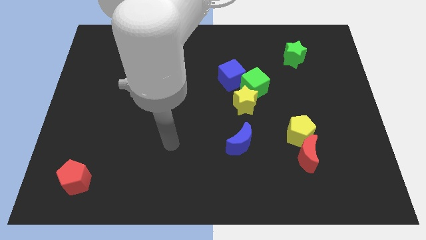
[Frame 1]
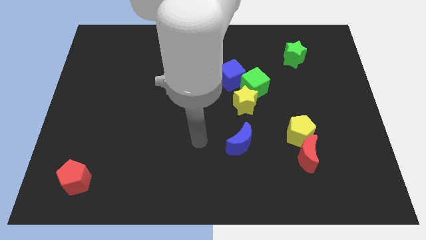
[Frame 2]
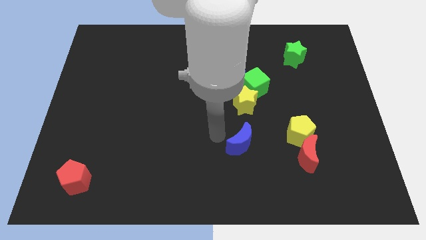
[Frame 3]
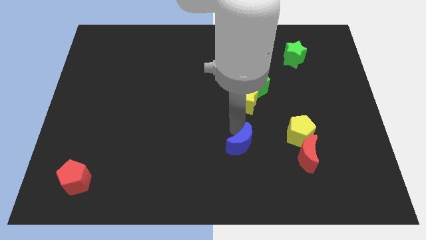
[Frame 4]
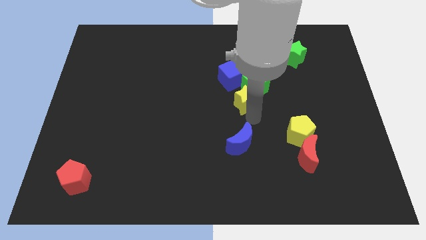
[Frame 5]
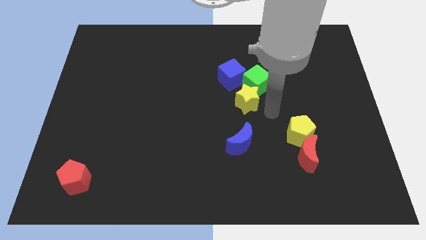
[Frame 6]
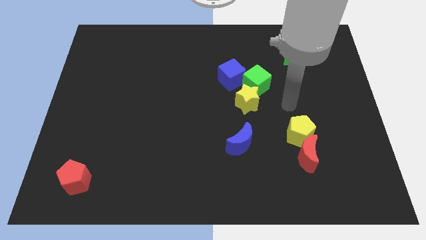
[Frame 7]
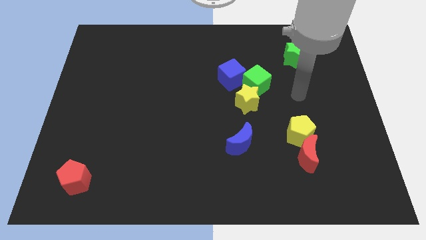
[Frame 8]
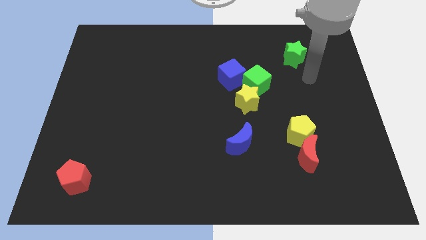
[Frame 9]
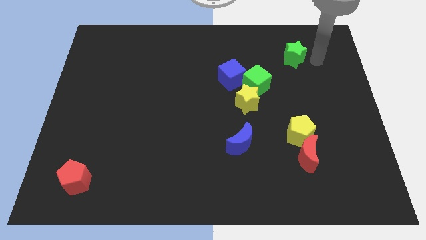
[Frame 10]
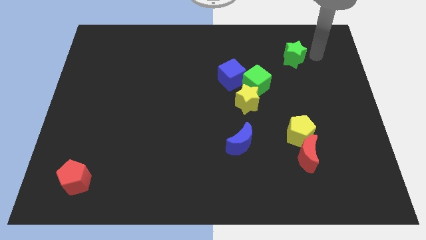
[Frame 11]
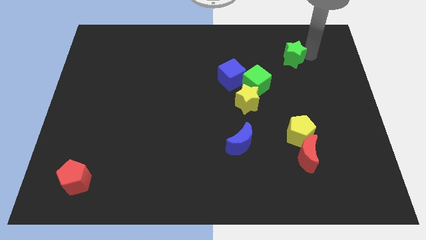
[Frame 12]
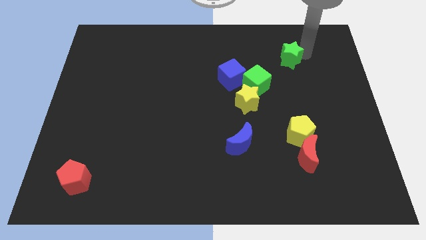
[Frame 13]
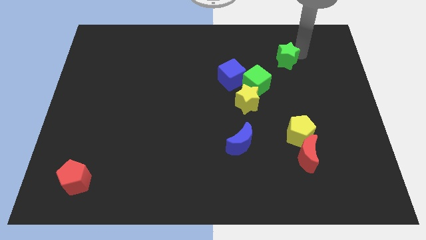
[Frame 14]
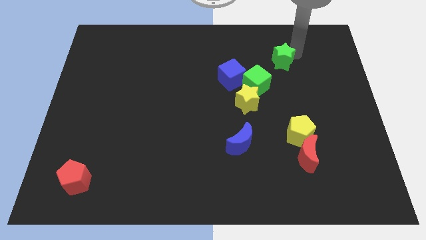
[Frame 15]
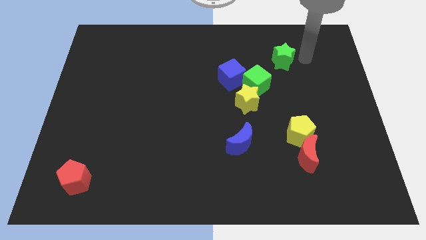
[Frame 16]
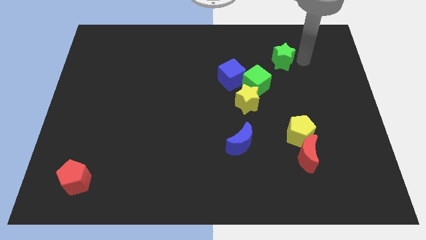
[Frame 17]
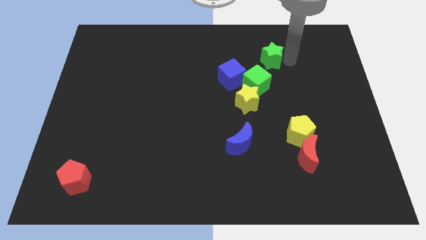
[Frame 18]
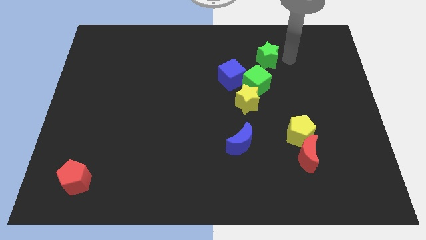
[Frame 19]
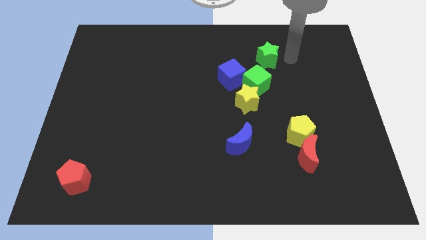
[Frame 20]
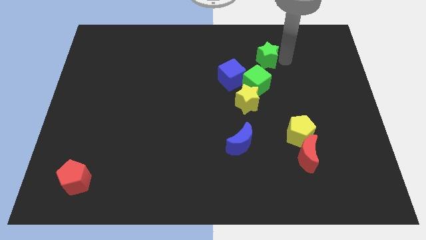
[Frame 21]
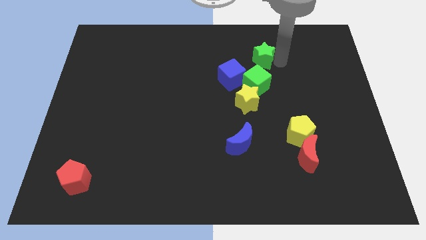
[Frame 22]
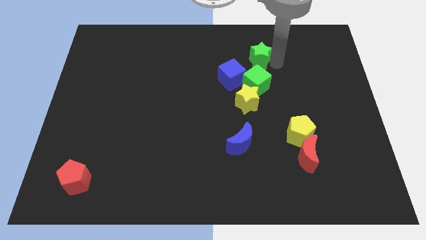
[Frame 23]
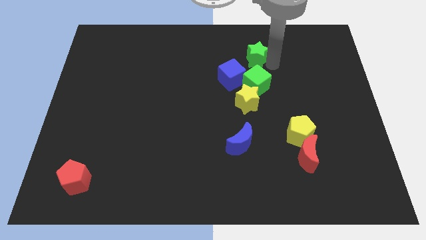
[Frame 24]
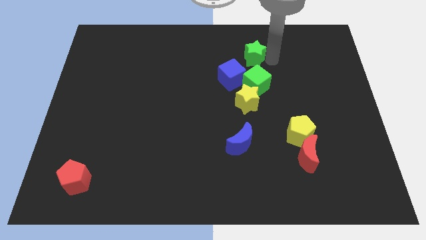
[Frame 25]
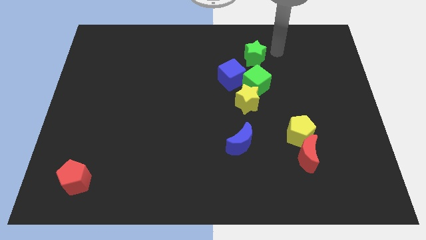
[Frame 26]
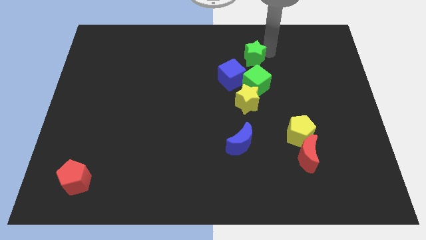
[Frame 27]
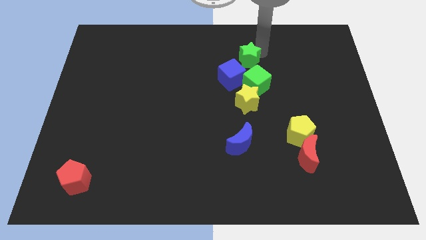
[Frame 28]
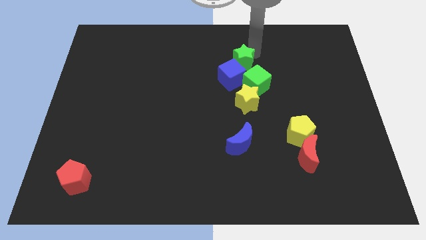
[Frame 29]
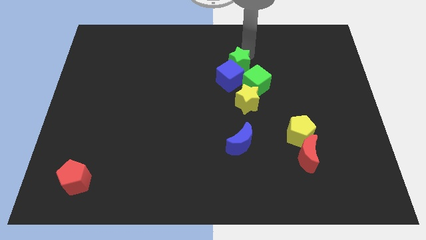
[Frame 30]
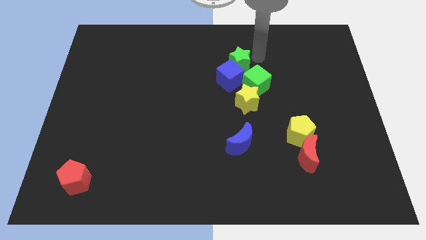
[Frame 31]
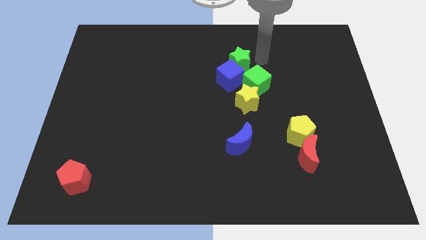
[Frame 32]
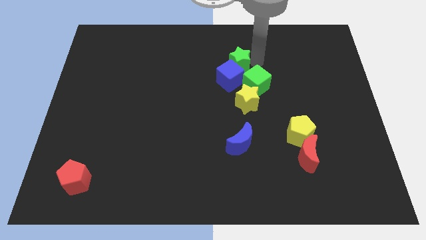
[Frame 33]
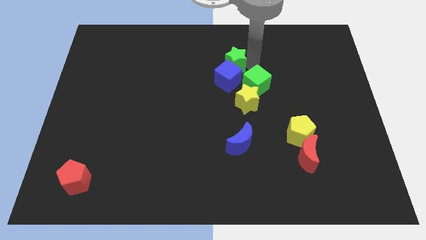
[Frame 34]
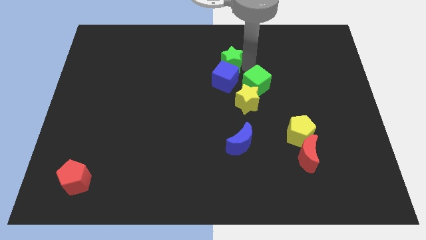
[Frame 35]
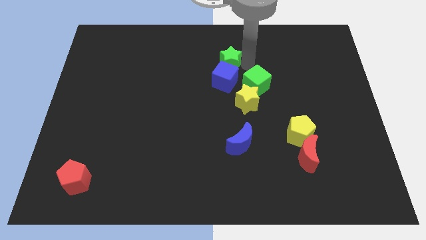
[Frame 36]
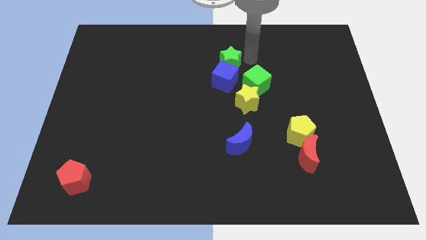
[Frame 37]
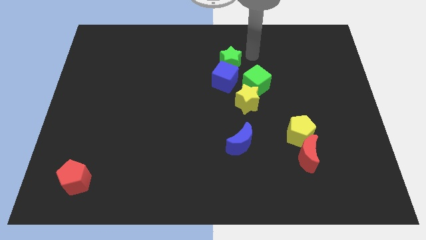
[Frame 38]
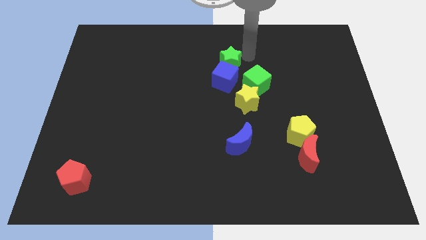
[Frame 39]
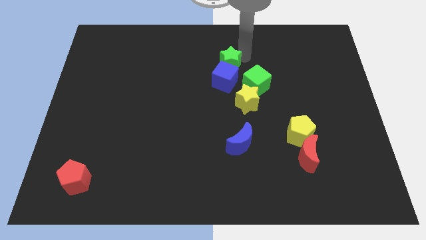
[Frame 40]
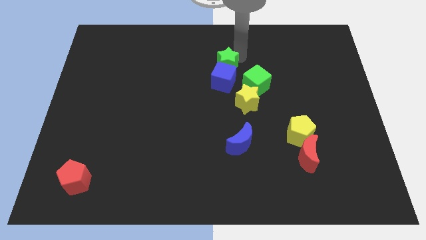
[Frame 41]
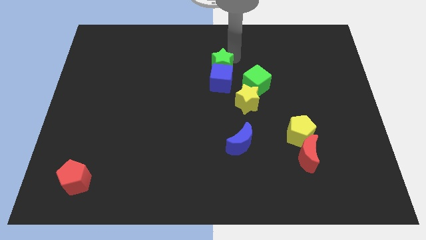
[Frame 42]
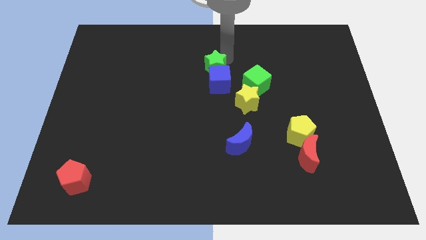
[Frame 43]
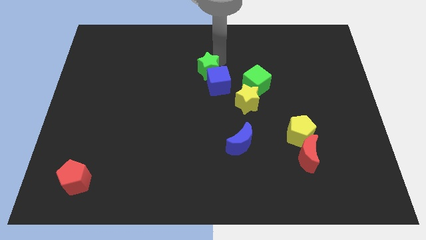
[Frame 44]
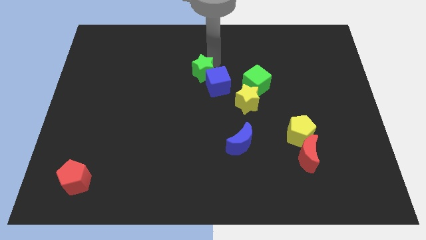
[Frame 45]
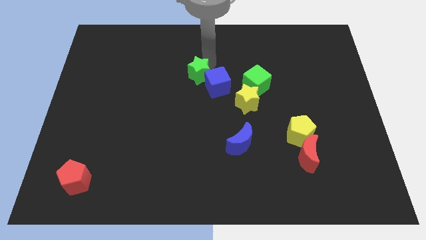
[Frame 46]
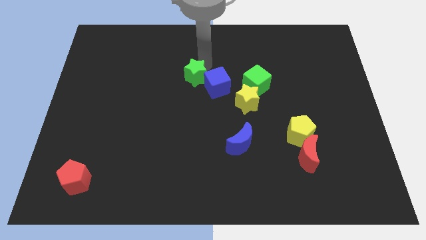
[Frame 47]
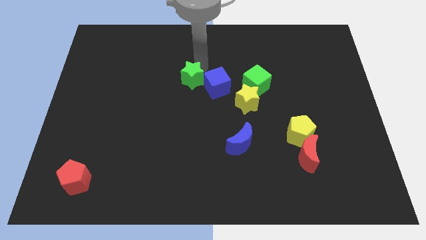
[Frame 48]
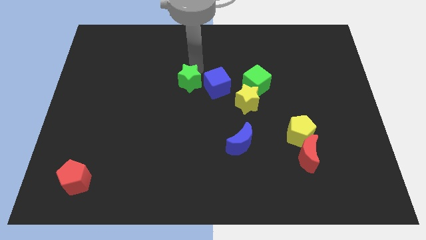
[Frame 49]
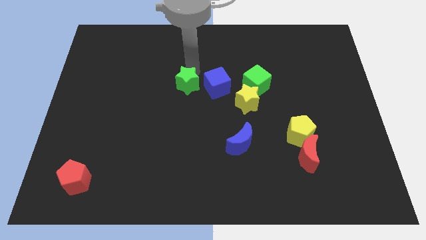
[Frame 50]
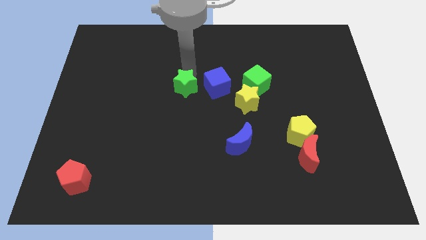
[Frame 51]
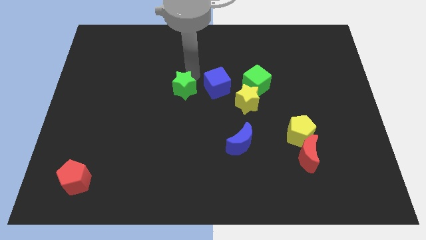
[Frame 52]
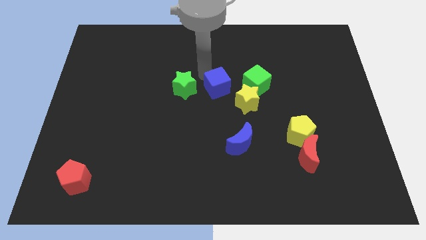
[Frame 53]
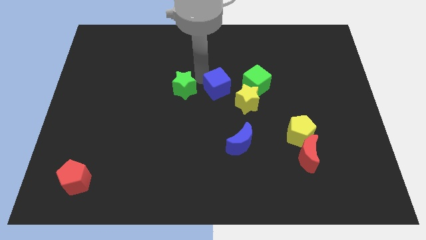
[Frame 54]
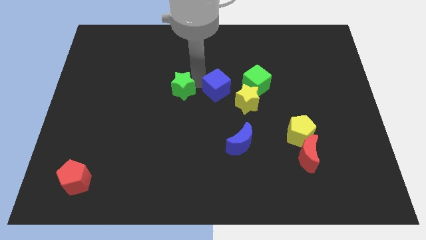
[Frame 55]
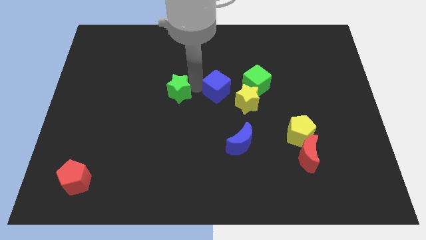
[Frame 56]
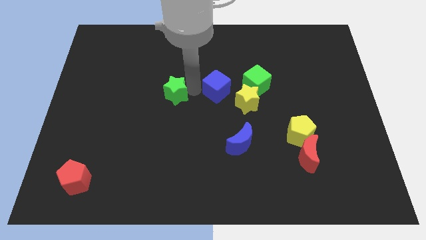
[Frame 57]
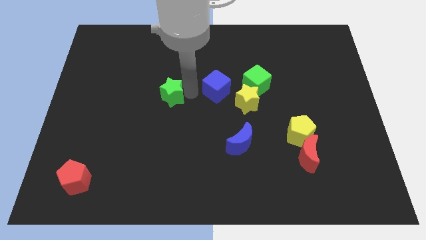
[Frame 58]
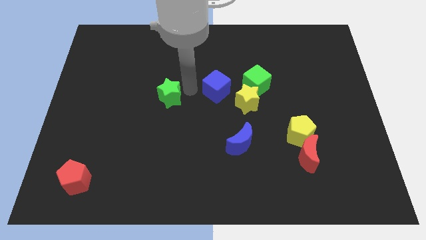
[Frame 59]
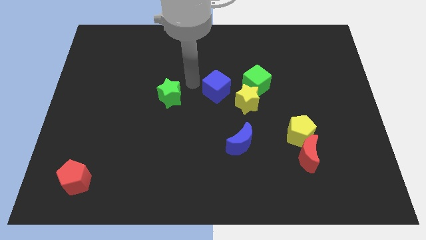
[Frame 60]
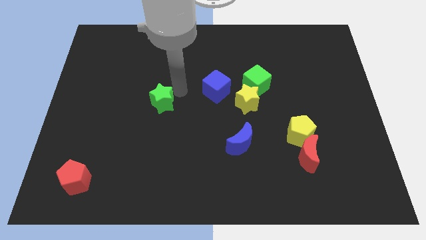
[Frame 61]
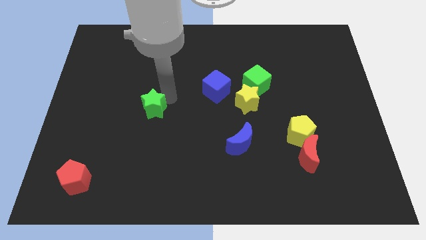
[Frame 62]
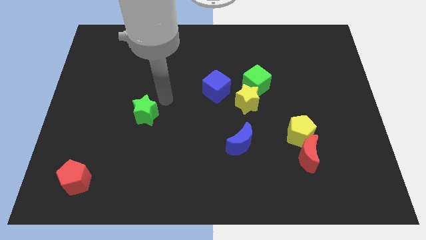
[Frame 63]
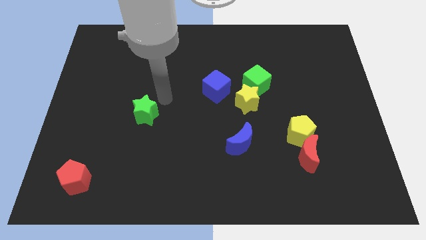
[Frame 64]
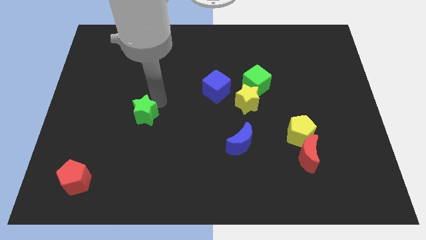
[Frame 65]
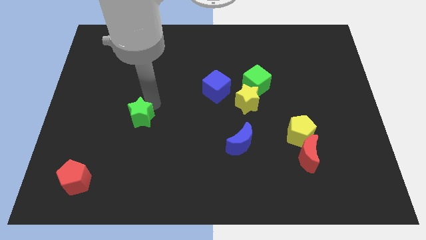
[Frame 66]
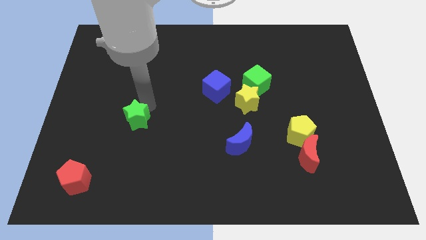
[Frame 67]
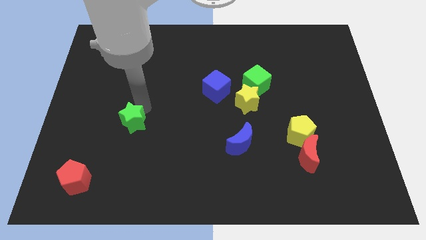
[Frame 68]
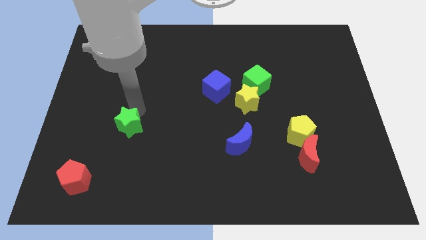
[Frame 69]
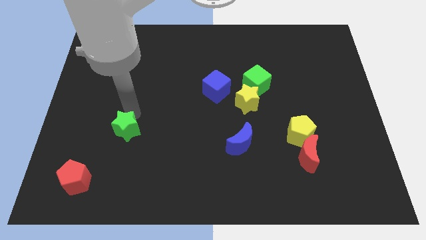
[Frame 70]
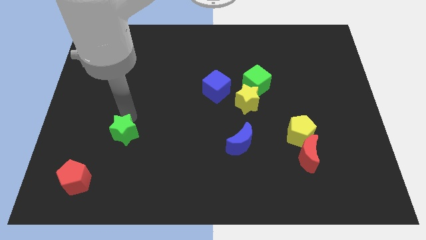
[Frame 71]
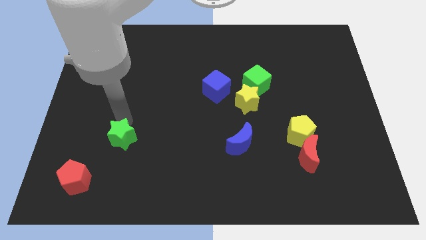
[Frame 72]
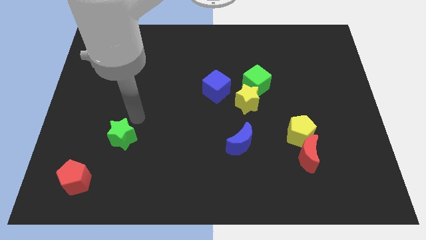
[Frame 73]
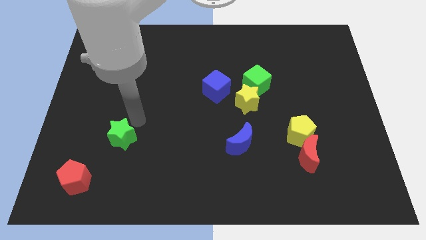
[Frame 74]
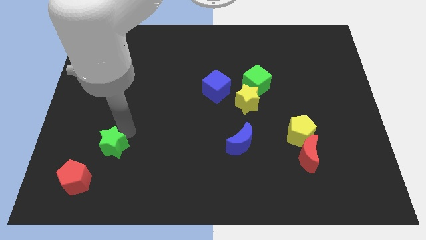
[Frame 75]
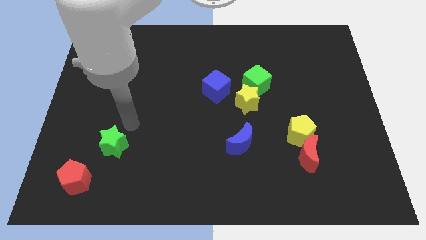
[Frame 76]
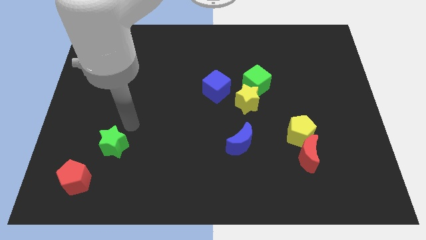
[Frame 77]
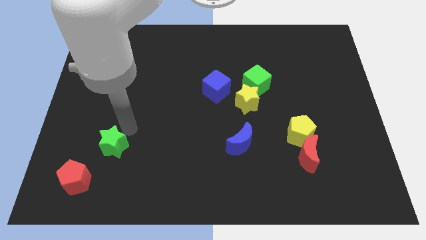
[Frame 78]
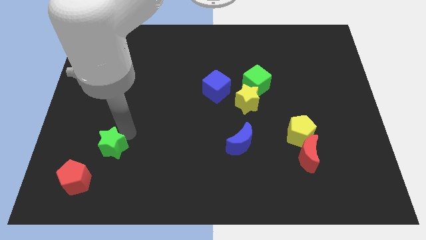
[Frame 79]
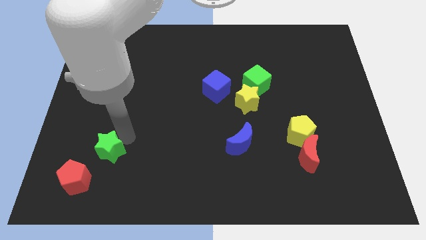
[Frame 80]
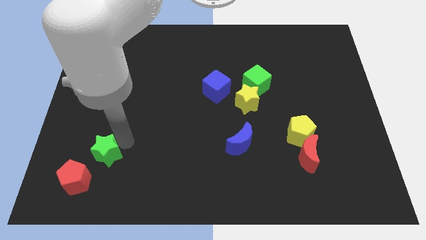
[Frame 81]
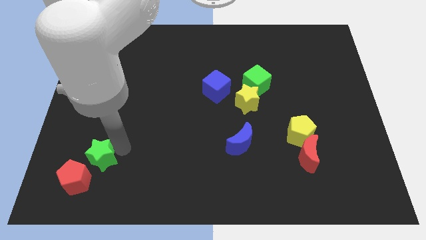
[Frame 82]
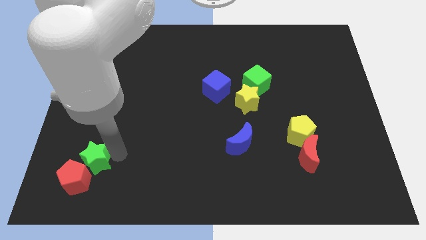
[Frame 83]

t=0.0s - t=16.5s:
push the green star next to the red pentagon
